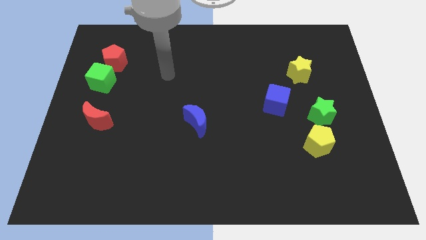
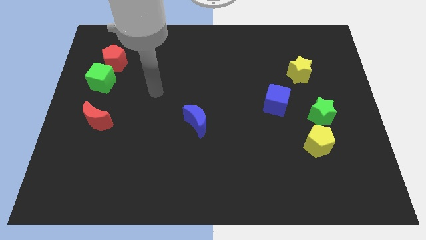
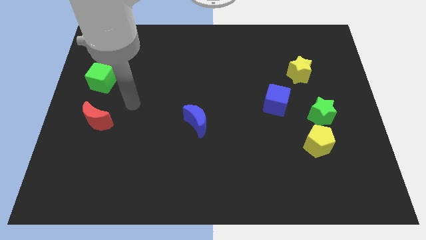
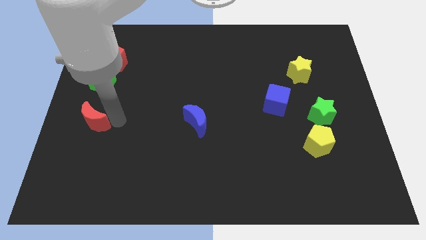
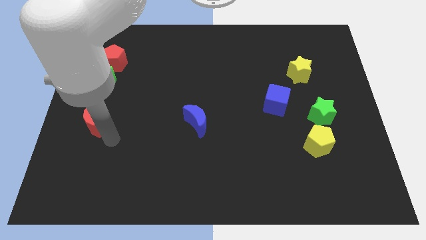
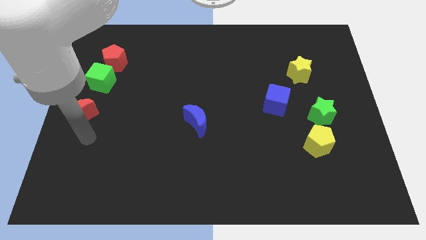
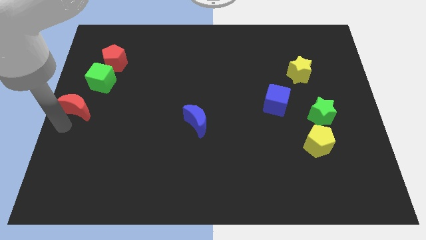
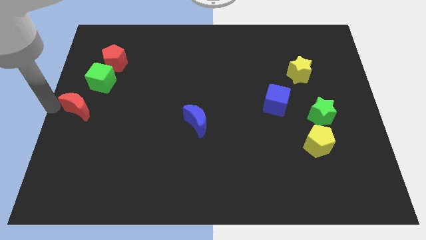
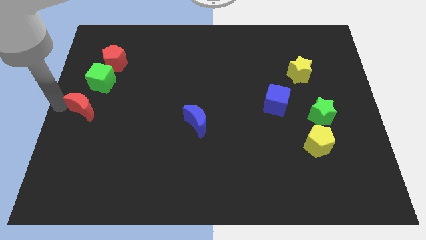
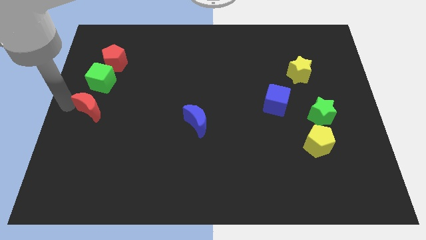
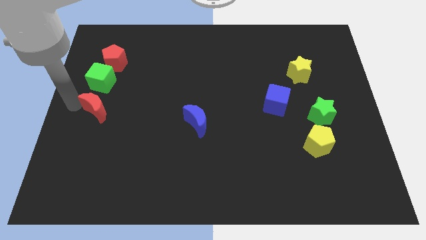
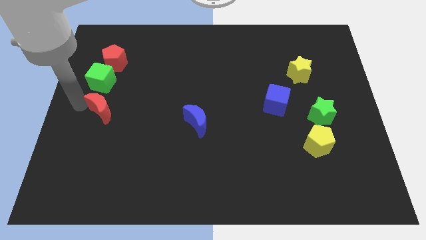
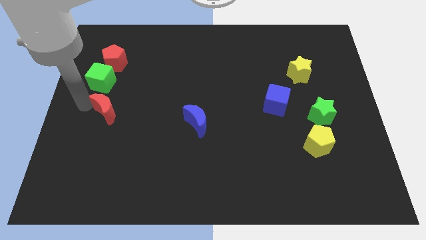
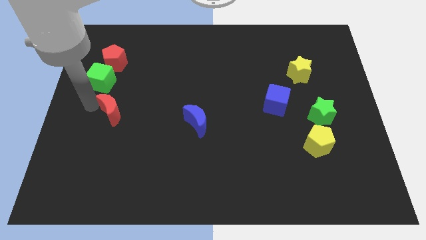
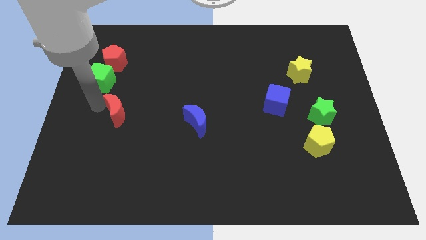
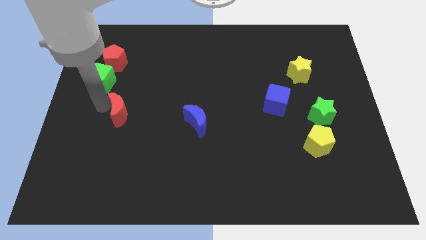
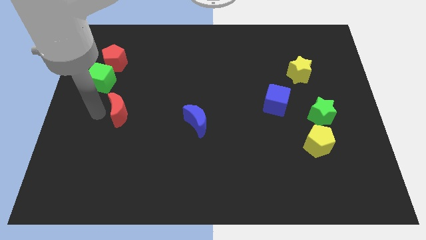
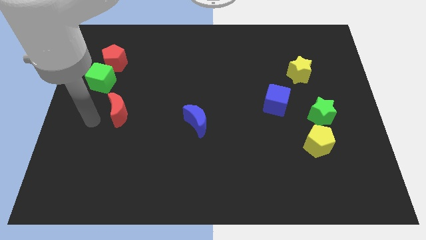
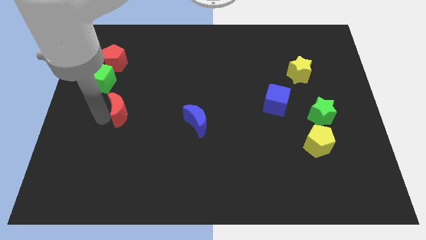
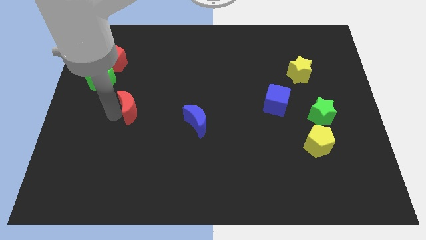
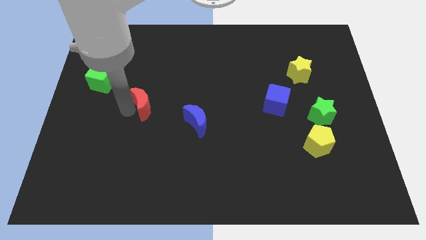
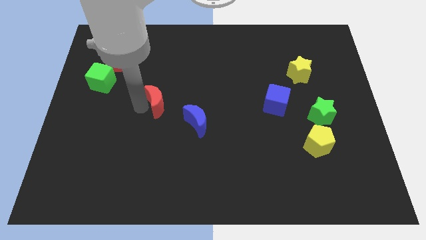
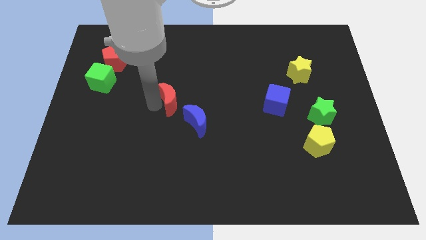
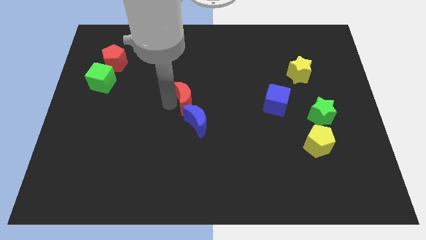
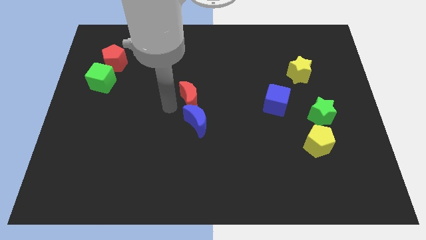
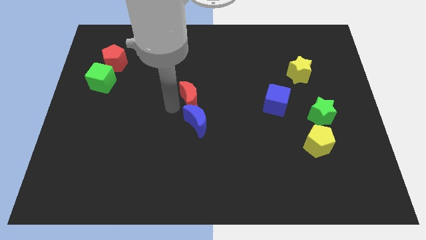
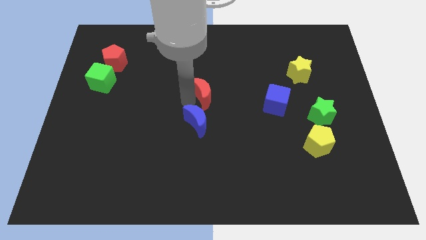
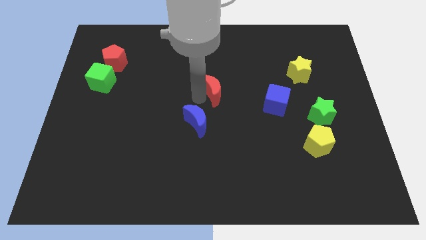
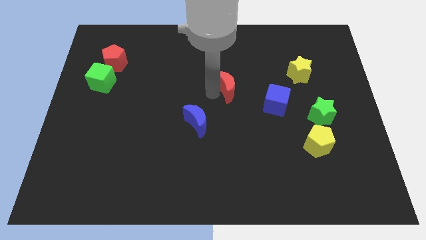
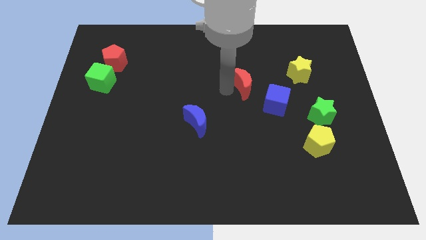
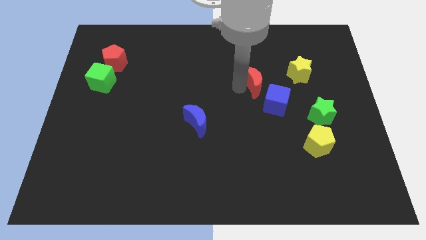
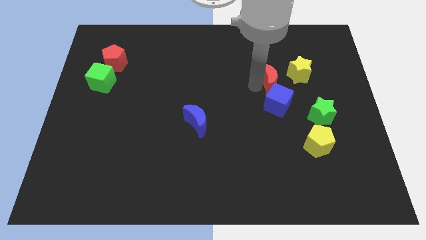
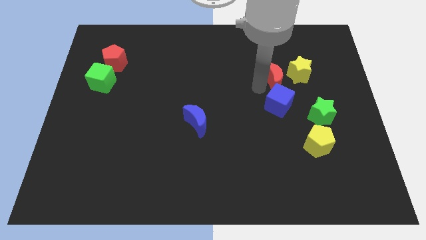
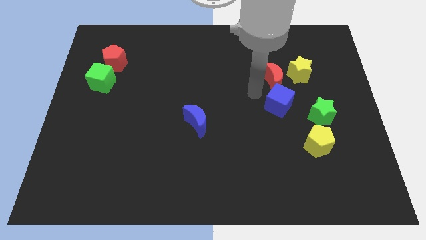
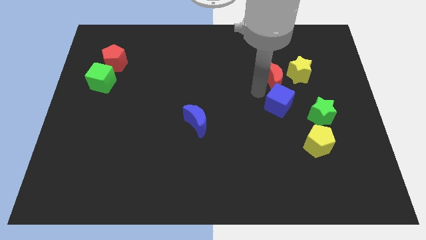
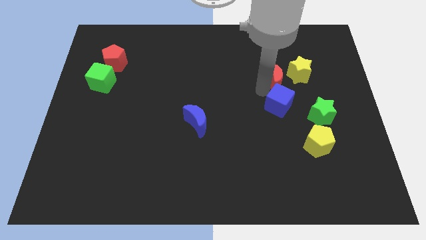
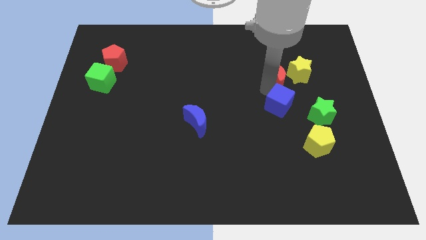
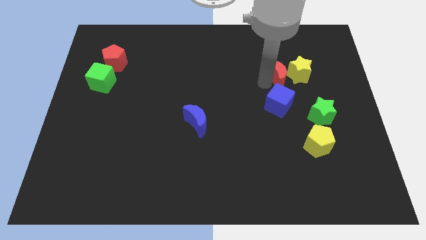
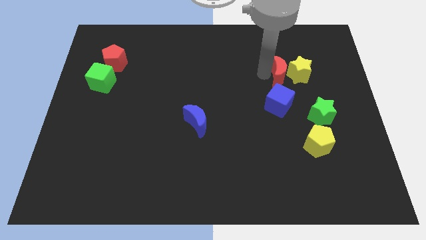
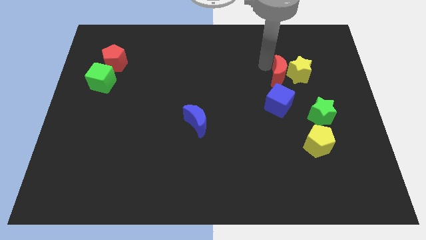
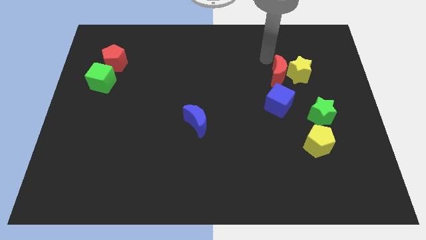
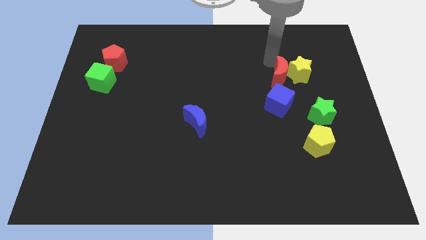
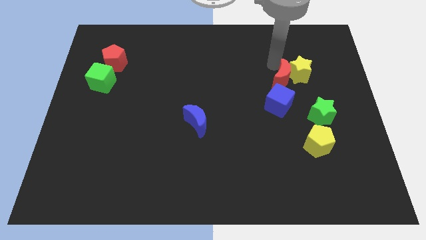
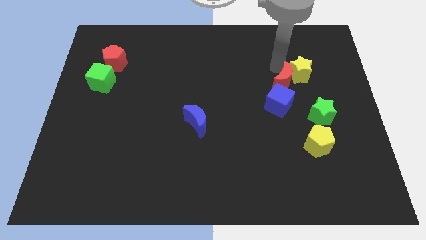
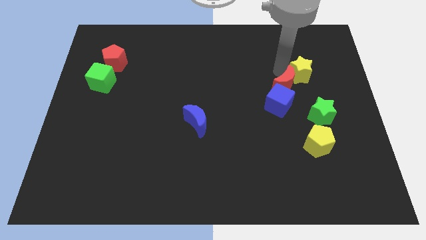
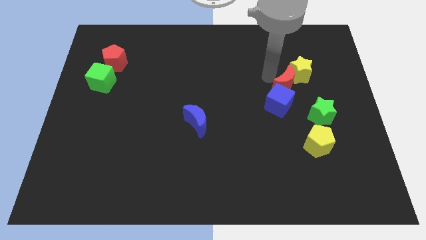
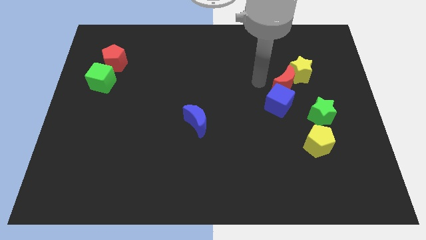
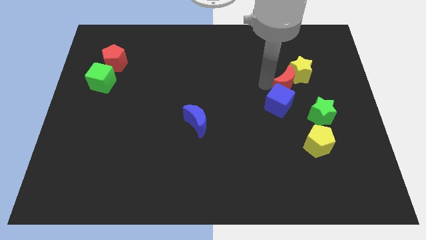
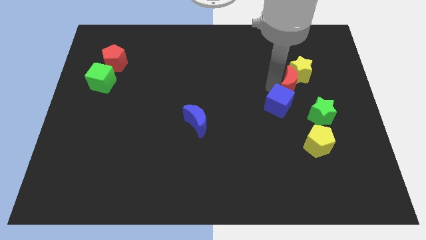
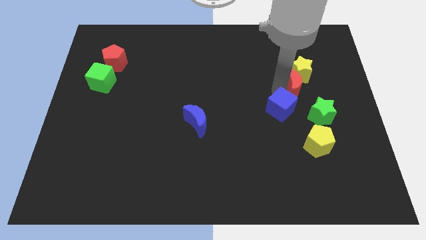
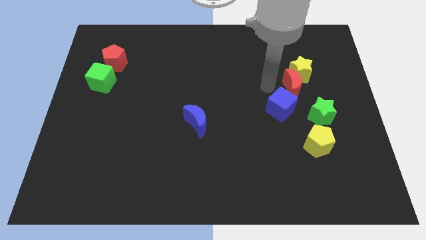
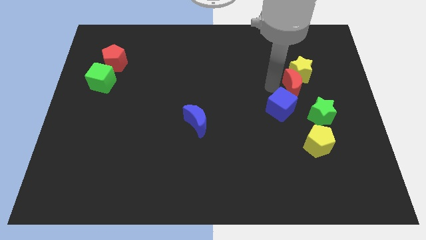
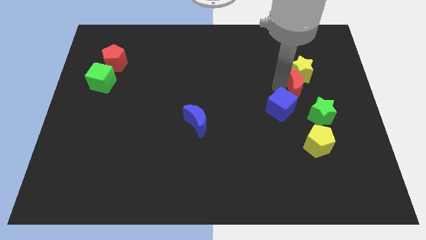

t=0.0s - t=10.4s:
slide the red moon to the bottom right side of the yellow star

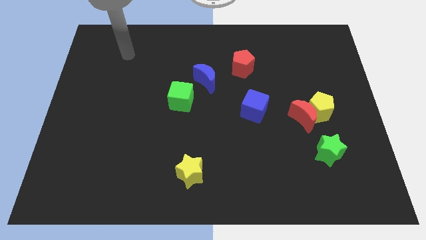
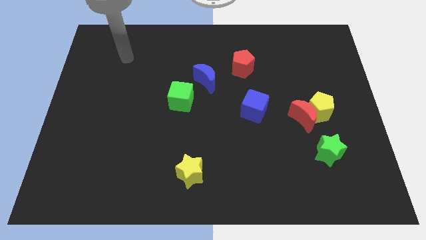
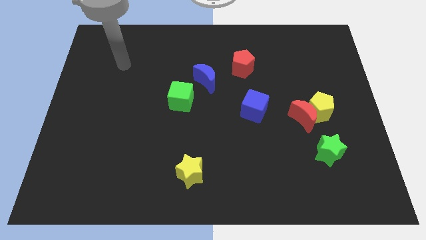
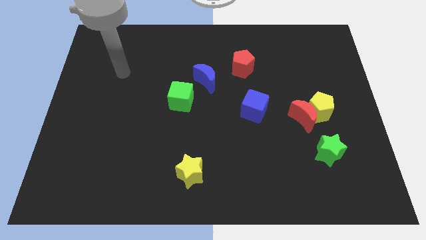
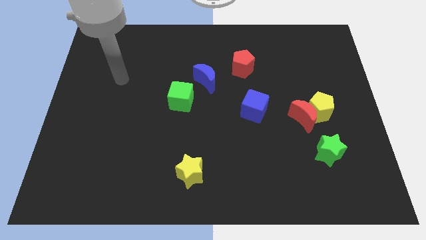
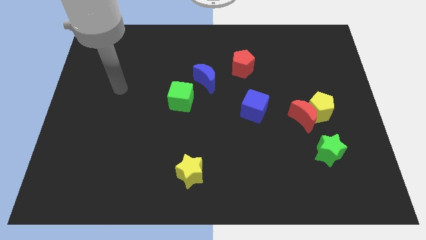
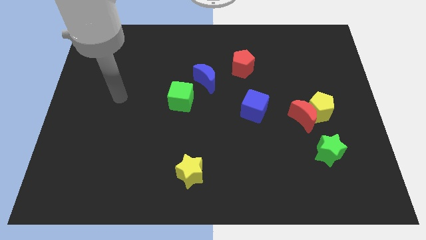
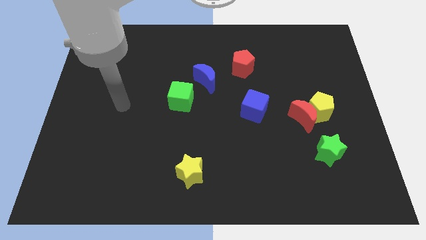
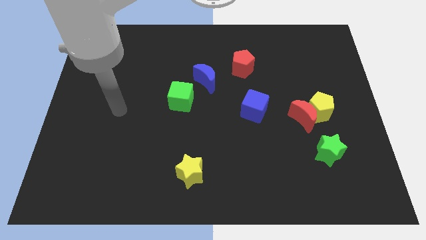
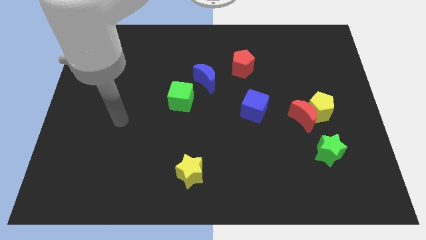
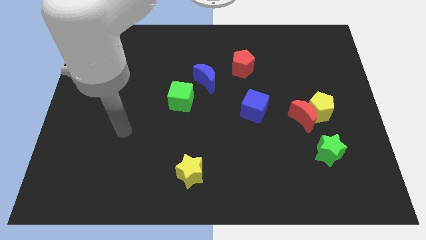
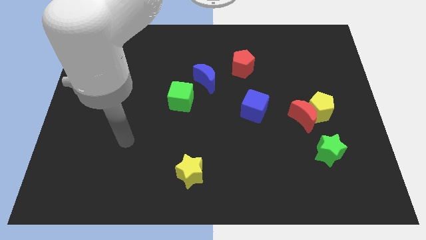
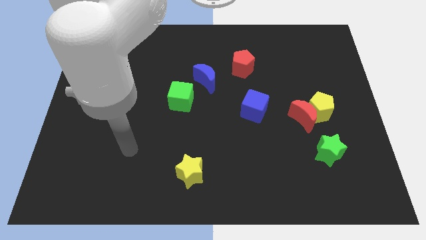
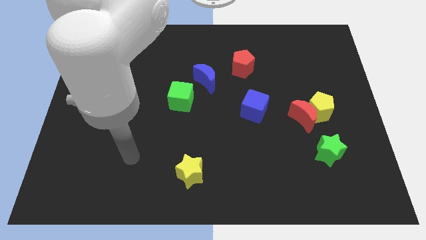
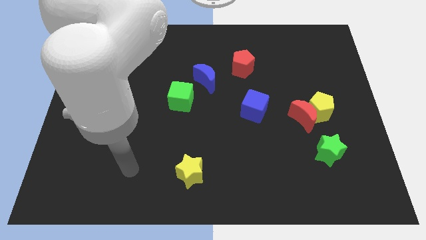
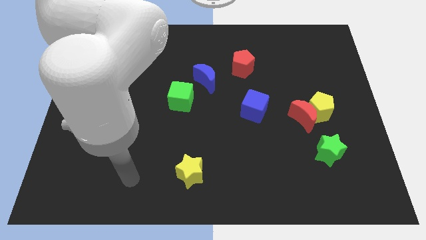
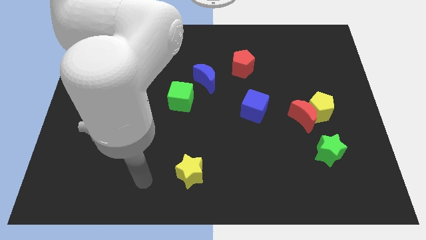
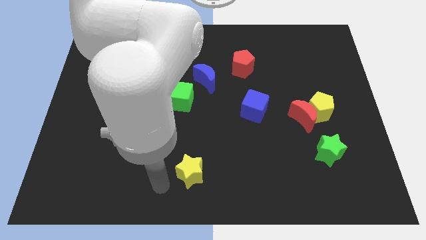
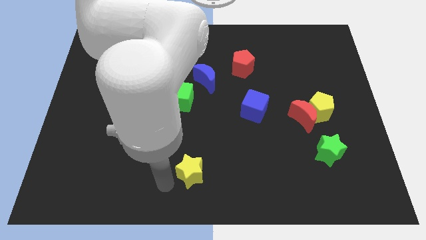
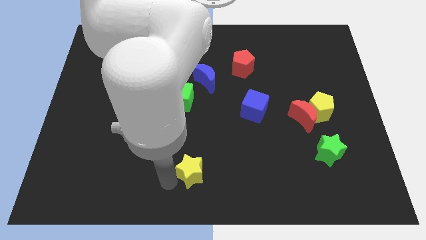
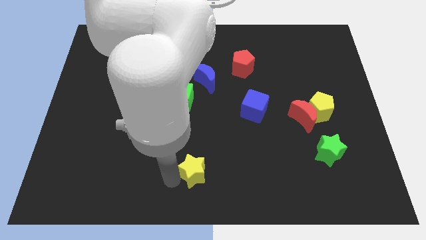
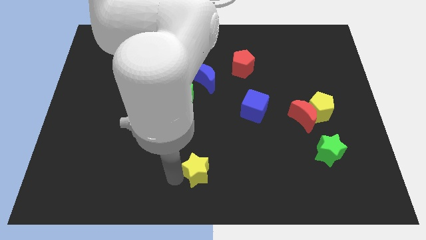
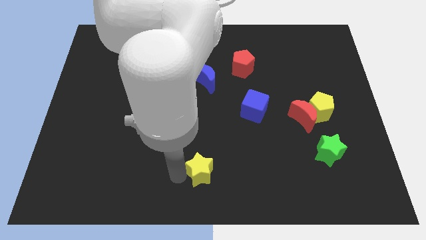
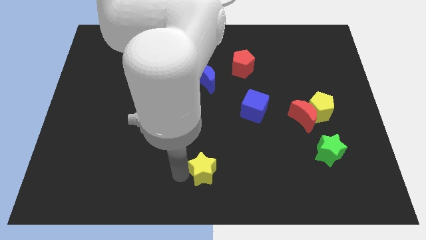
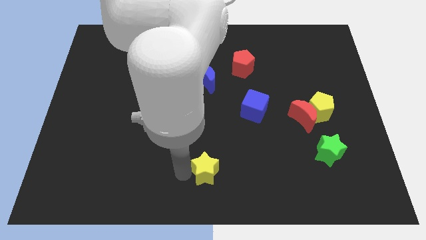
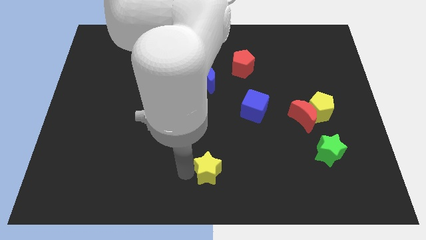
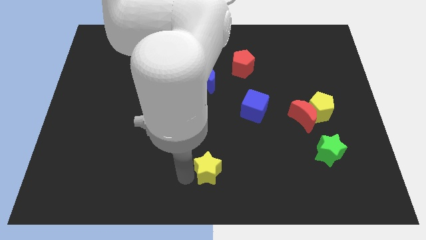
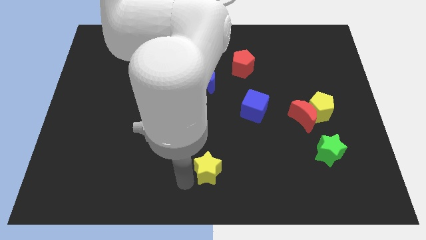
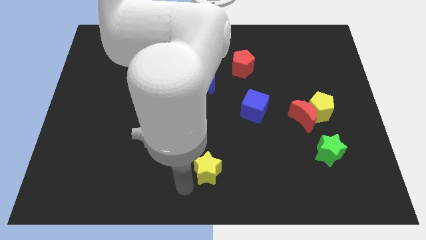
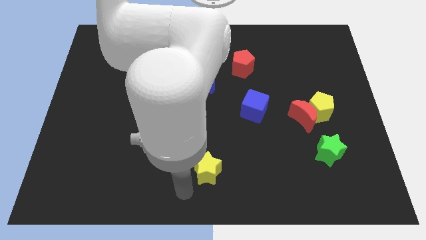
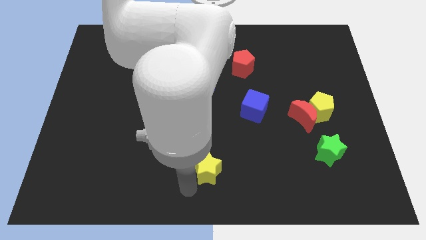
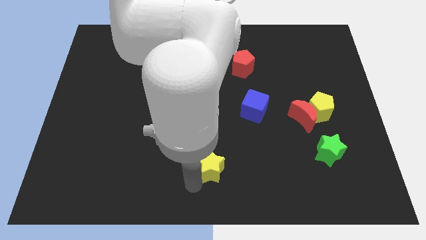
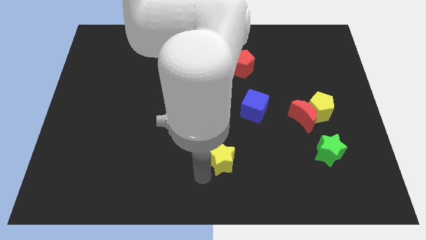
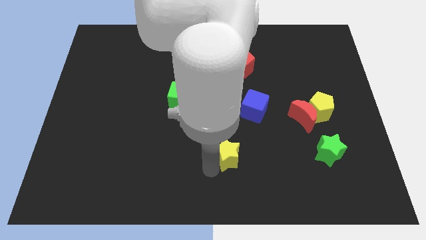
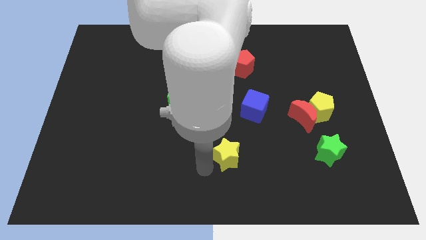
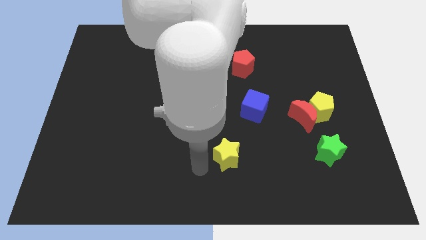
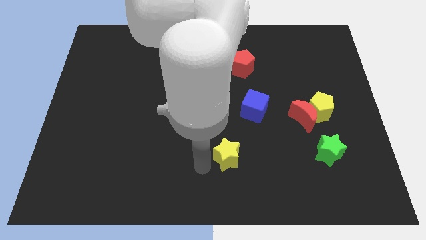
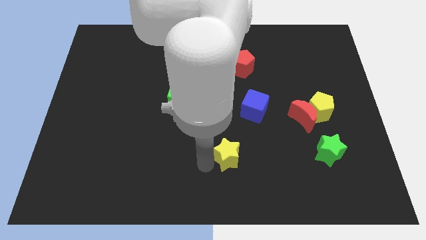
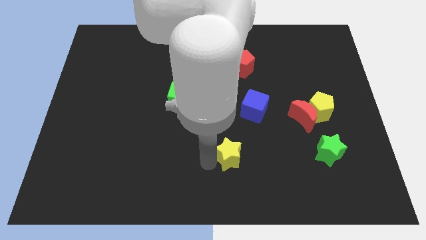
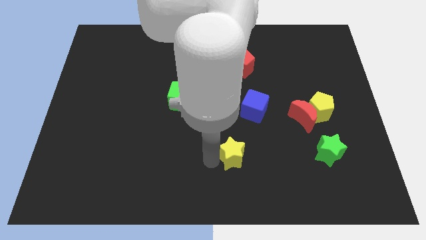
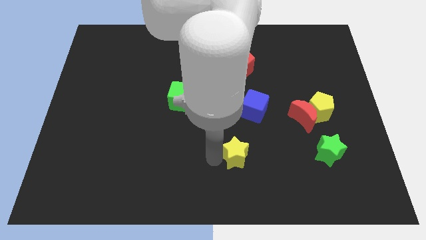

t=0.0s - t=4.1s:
put the yellow star to the bottom of the blue cube
